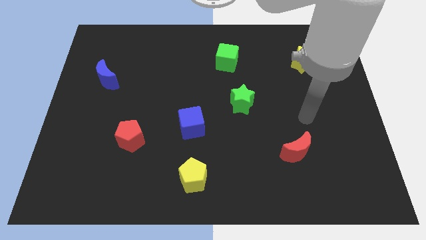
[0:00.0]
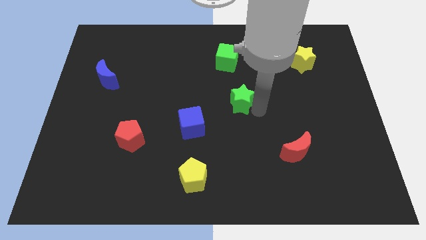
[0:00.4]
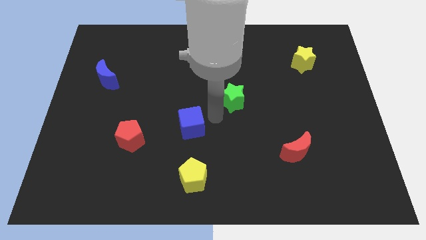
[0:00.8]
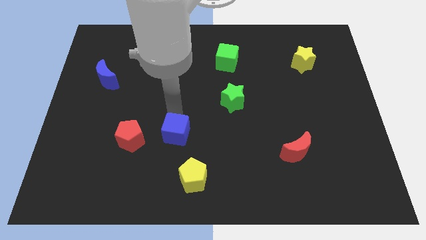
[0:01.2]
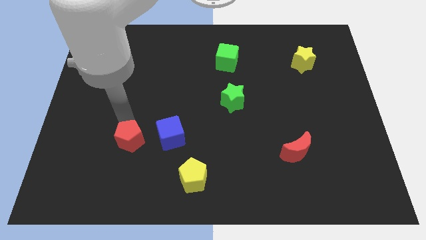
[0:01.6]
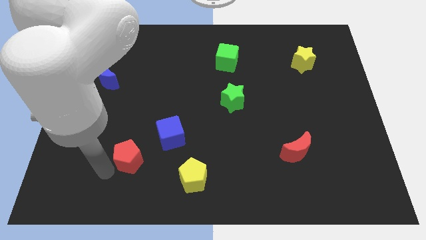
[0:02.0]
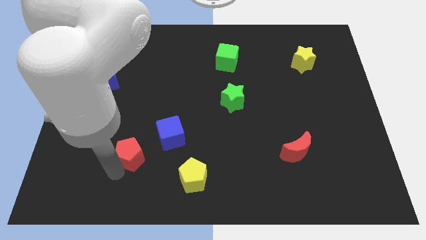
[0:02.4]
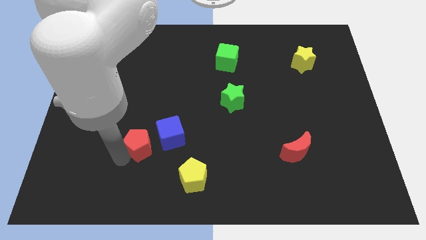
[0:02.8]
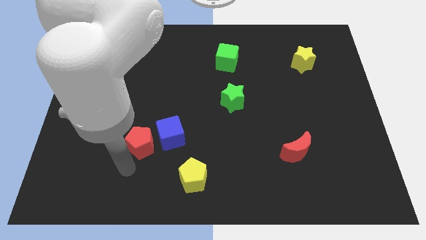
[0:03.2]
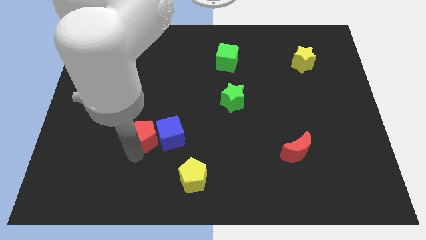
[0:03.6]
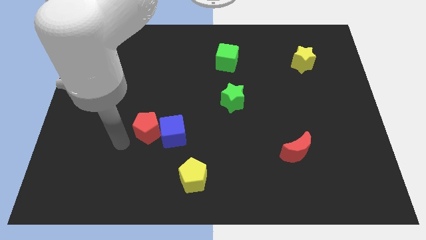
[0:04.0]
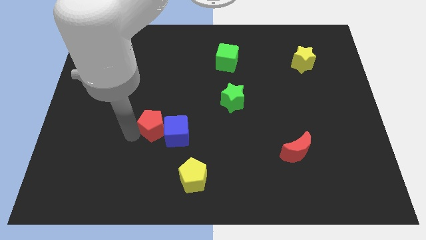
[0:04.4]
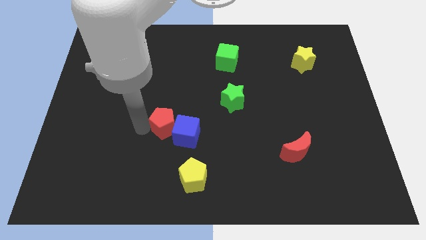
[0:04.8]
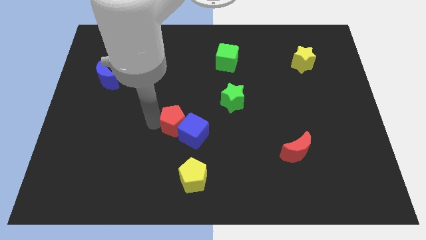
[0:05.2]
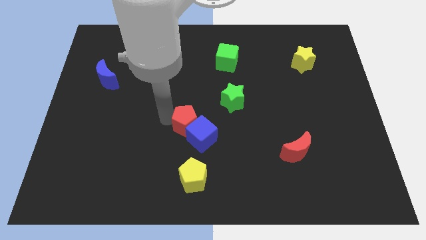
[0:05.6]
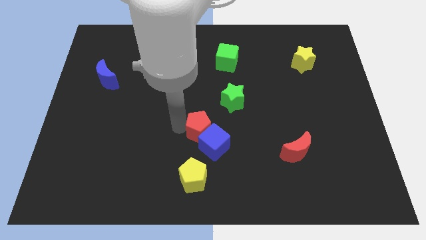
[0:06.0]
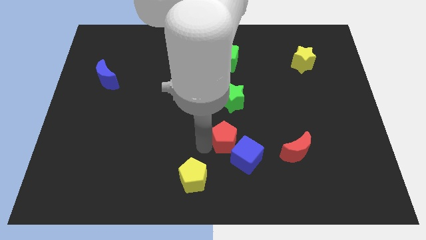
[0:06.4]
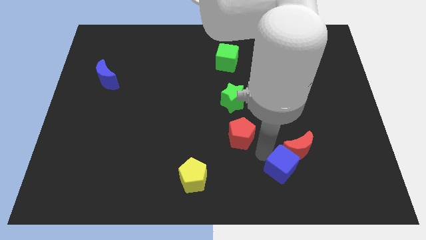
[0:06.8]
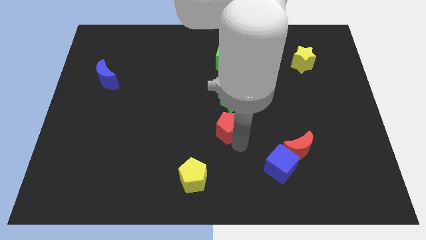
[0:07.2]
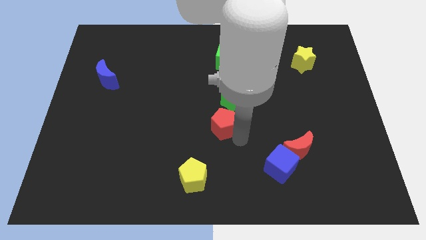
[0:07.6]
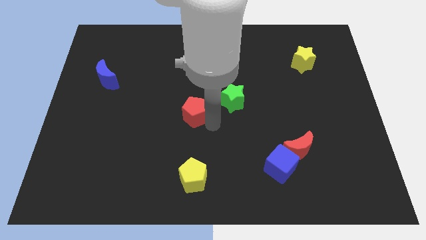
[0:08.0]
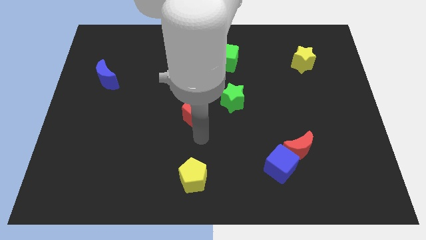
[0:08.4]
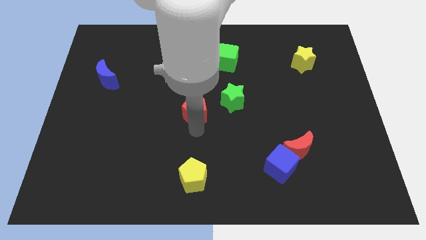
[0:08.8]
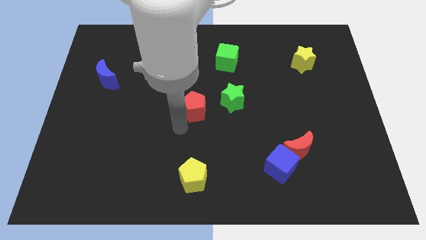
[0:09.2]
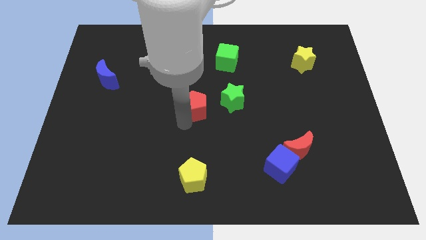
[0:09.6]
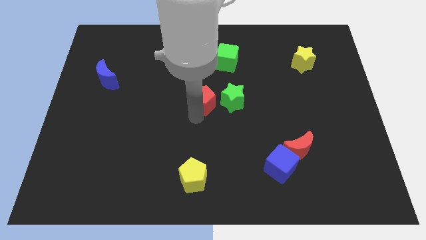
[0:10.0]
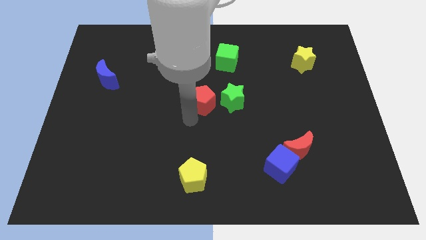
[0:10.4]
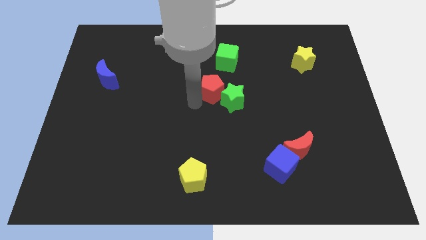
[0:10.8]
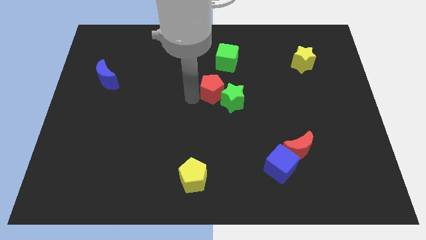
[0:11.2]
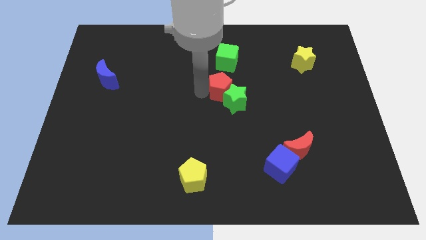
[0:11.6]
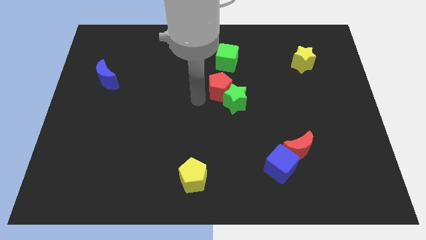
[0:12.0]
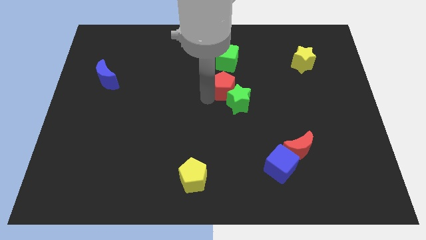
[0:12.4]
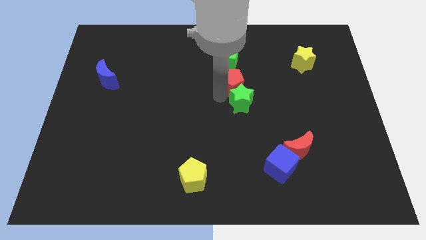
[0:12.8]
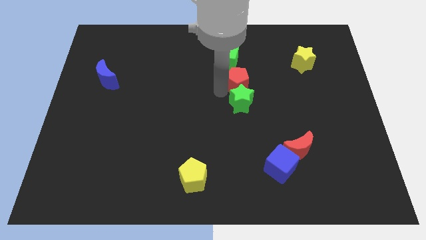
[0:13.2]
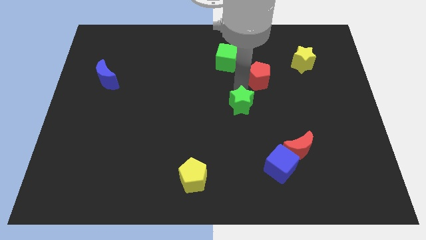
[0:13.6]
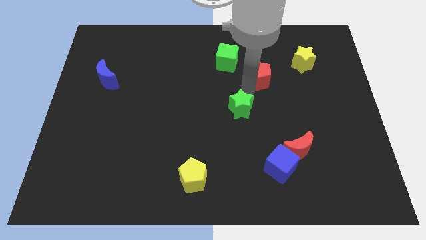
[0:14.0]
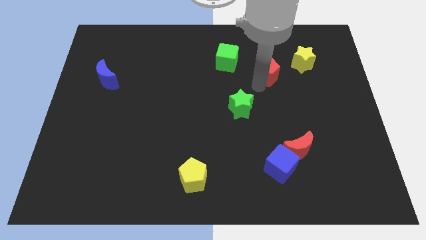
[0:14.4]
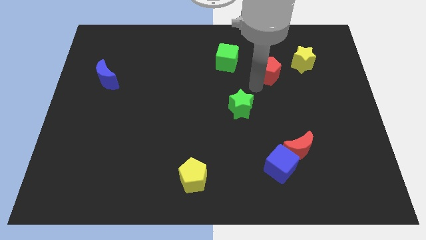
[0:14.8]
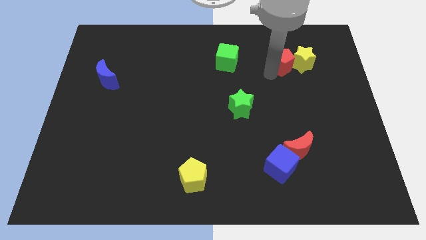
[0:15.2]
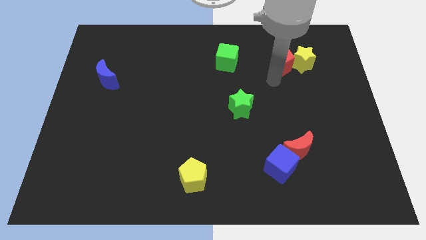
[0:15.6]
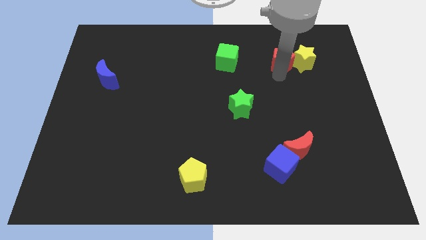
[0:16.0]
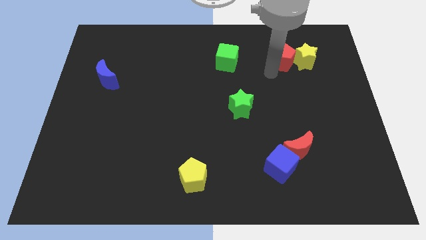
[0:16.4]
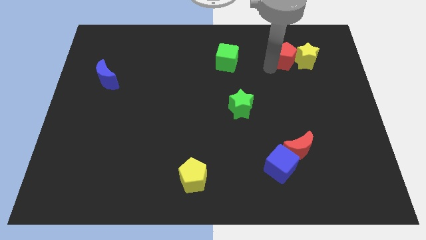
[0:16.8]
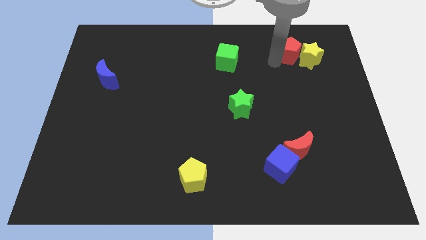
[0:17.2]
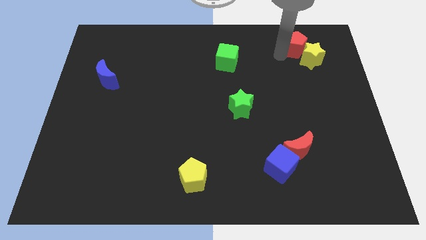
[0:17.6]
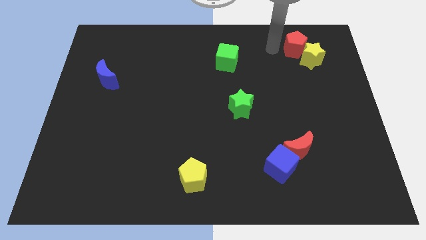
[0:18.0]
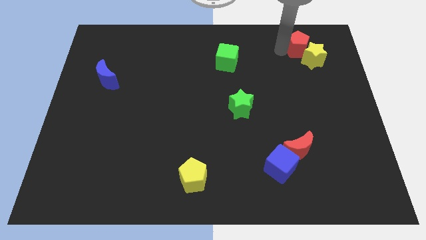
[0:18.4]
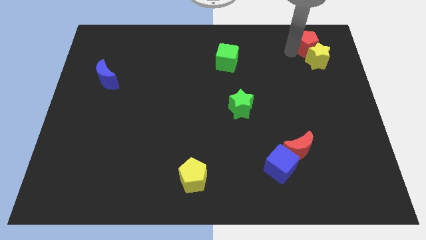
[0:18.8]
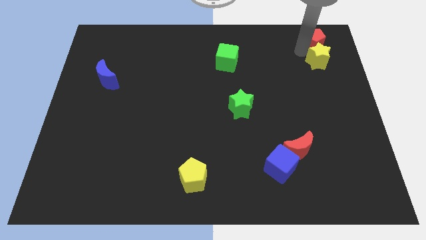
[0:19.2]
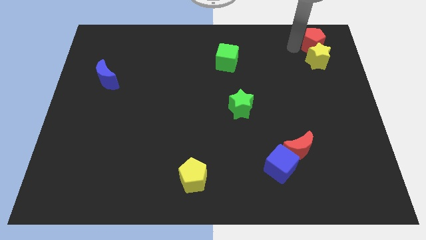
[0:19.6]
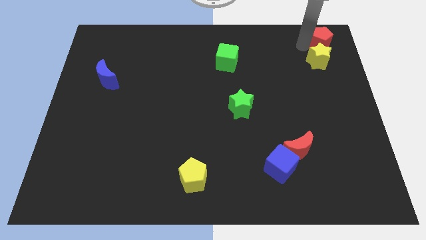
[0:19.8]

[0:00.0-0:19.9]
move the red pentagon to the top right corner
